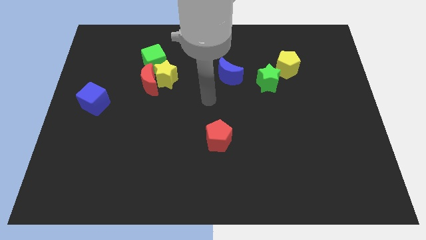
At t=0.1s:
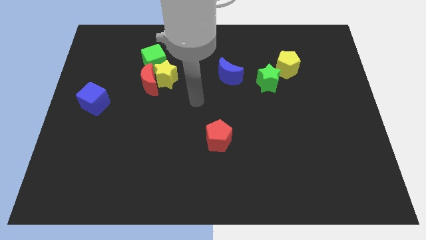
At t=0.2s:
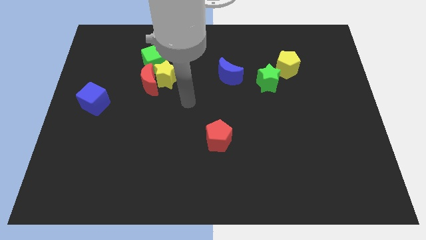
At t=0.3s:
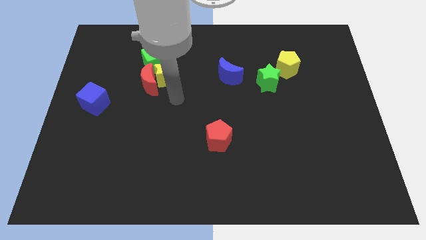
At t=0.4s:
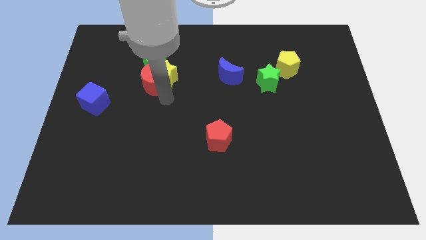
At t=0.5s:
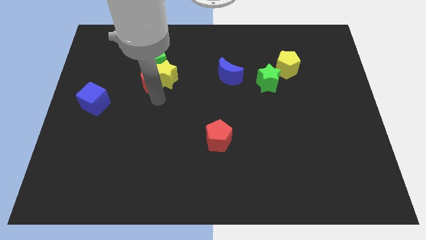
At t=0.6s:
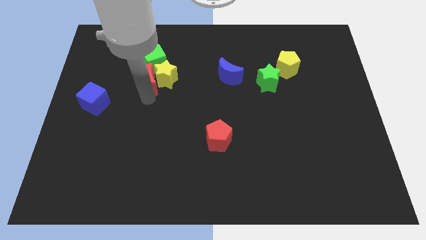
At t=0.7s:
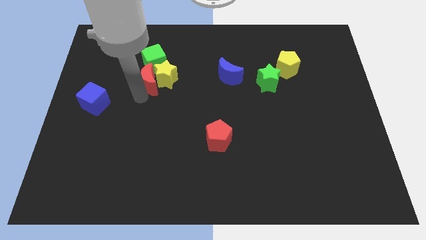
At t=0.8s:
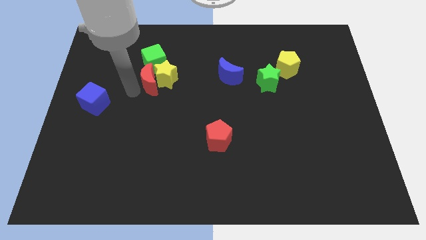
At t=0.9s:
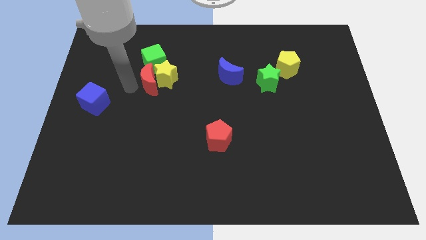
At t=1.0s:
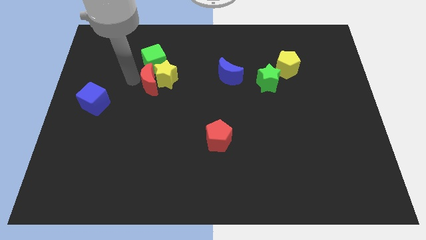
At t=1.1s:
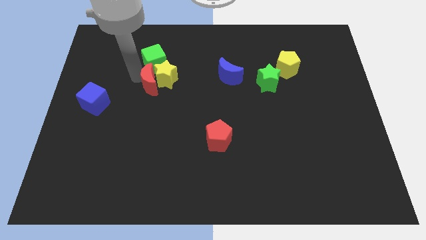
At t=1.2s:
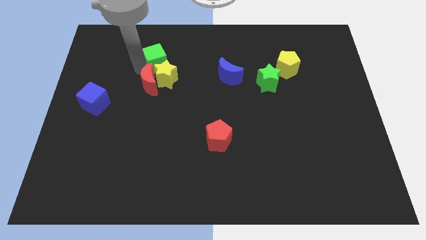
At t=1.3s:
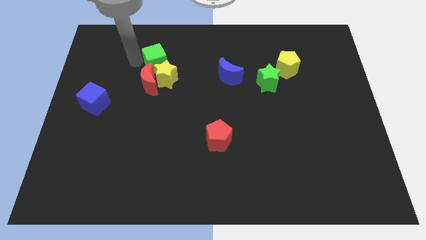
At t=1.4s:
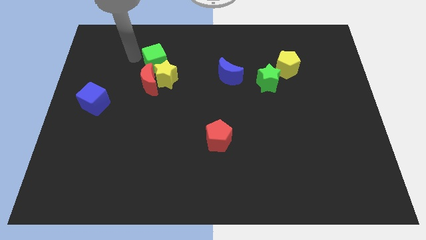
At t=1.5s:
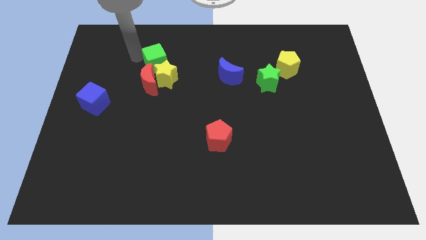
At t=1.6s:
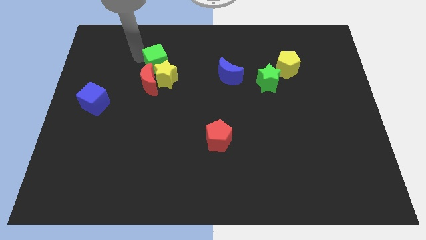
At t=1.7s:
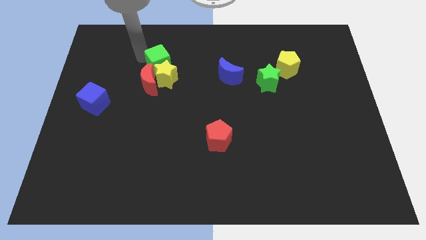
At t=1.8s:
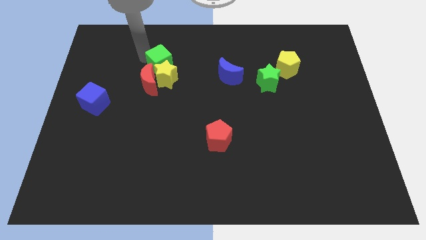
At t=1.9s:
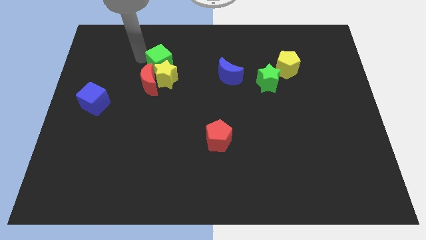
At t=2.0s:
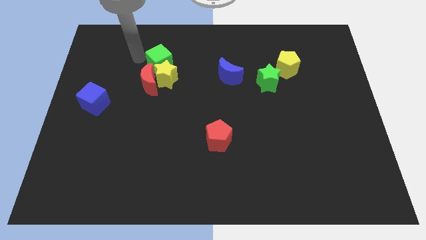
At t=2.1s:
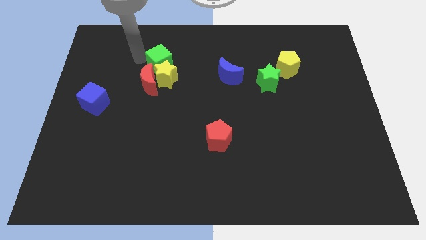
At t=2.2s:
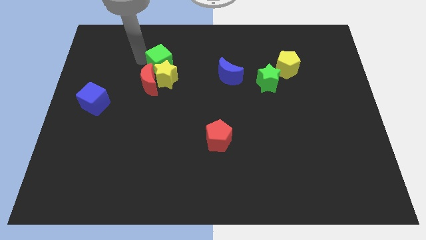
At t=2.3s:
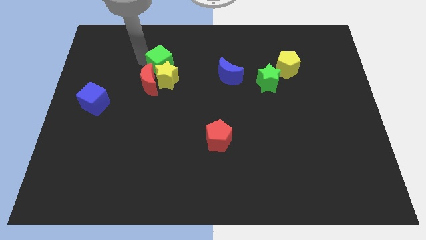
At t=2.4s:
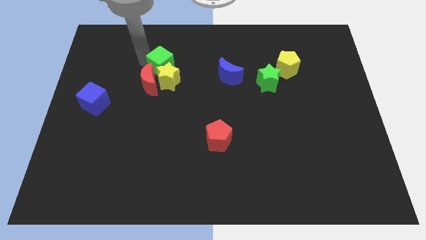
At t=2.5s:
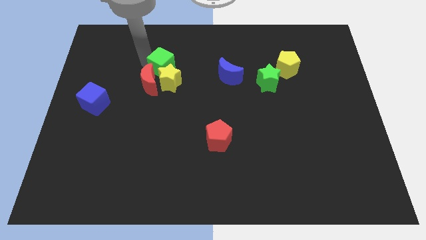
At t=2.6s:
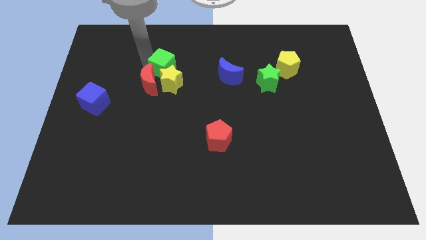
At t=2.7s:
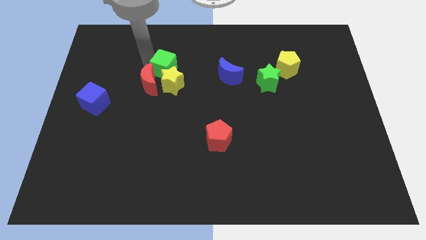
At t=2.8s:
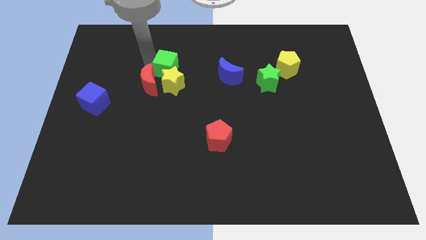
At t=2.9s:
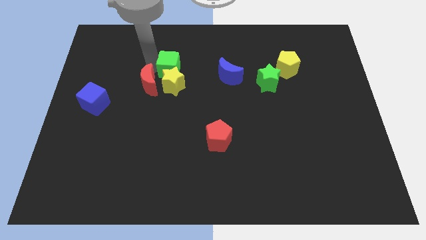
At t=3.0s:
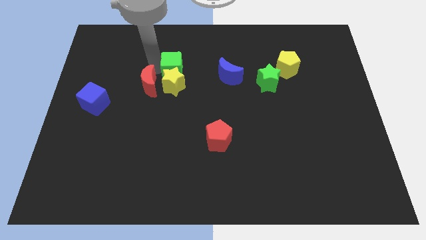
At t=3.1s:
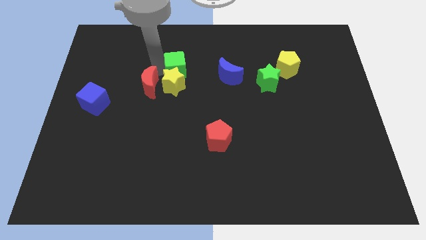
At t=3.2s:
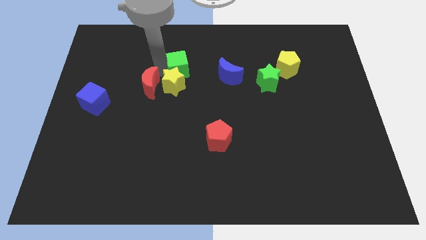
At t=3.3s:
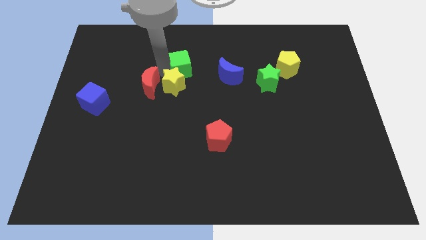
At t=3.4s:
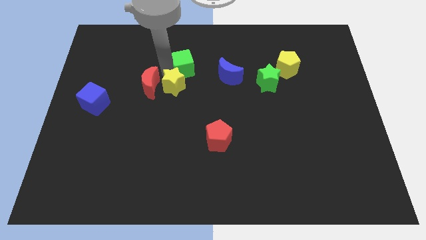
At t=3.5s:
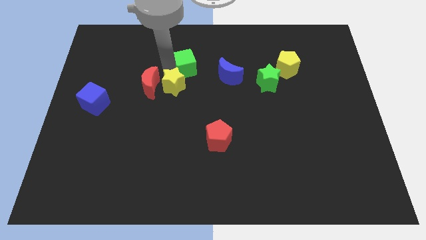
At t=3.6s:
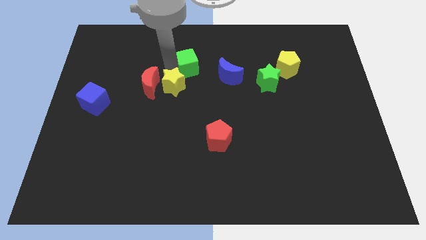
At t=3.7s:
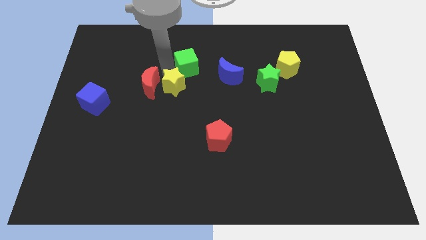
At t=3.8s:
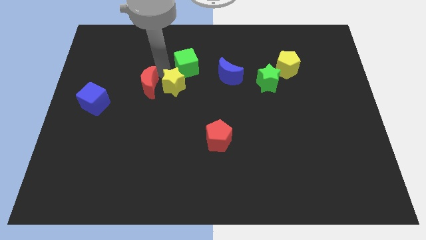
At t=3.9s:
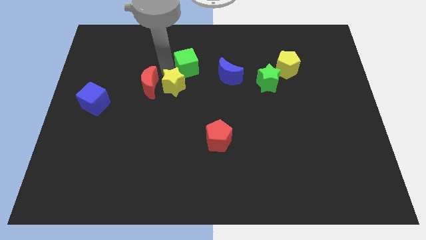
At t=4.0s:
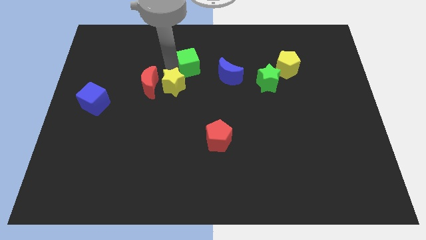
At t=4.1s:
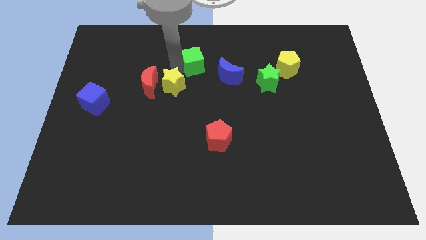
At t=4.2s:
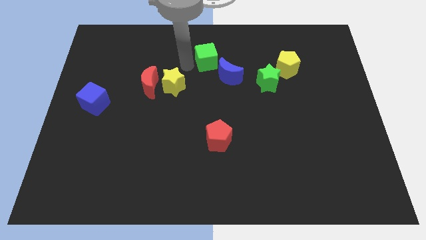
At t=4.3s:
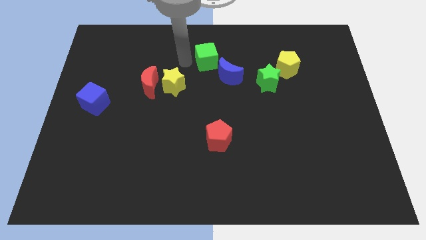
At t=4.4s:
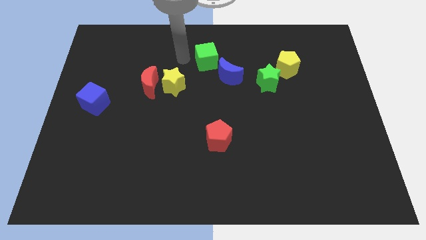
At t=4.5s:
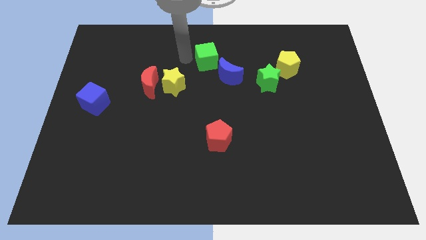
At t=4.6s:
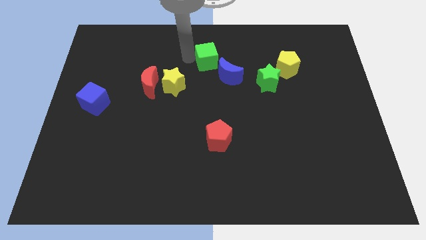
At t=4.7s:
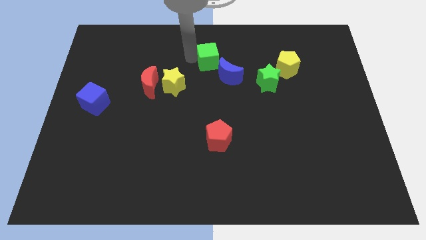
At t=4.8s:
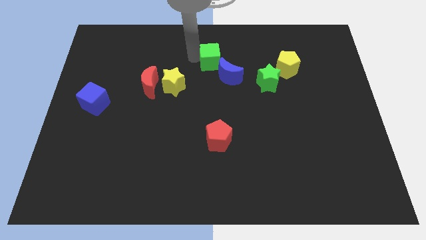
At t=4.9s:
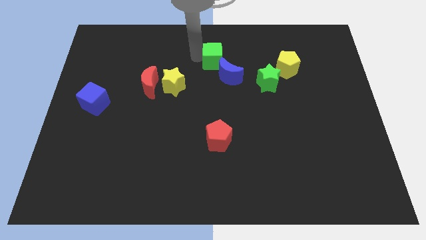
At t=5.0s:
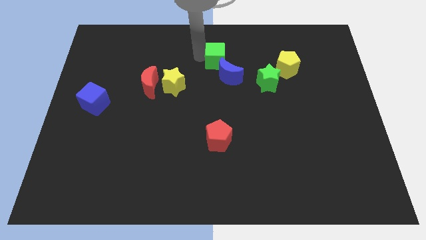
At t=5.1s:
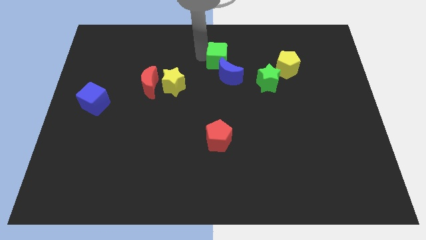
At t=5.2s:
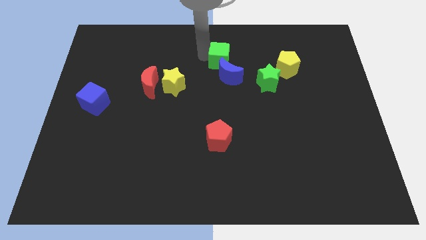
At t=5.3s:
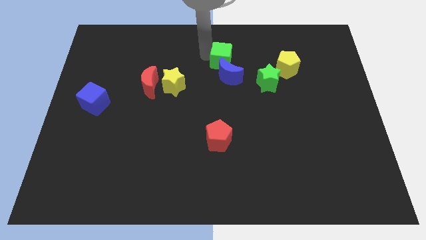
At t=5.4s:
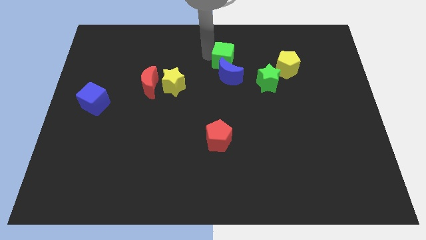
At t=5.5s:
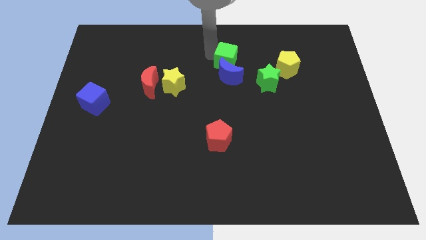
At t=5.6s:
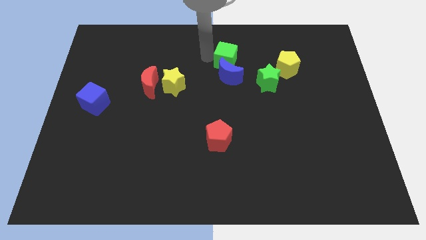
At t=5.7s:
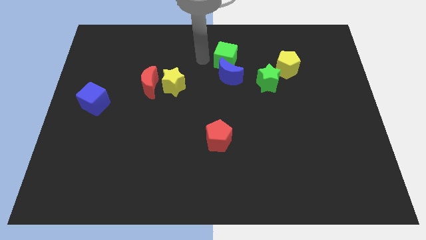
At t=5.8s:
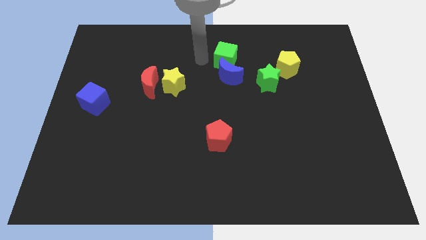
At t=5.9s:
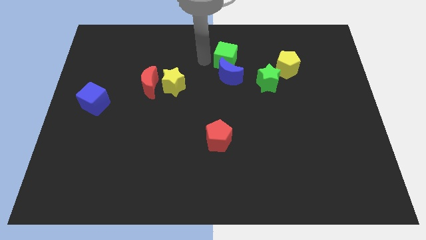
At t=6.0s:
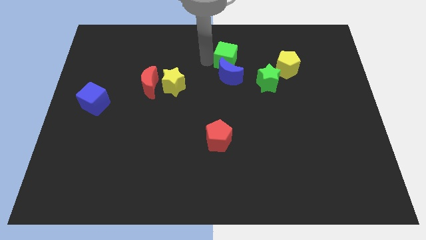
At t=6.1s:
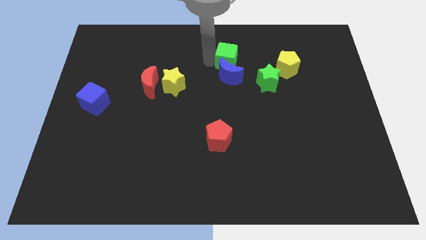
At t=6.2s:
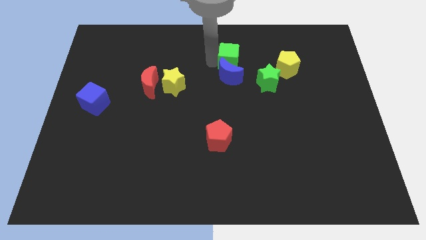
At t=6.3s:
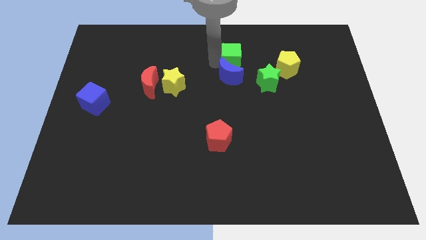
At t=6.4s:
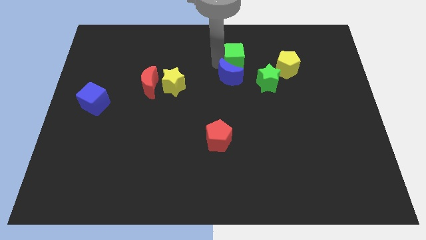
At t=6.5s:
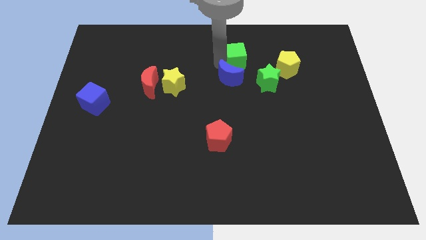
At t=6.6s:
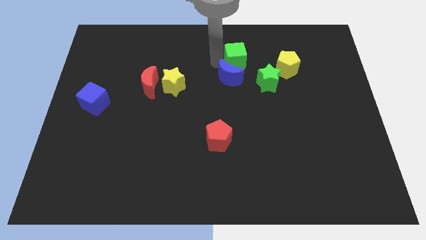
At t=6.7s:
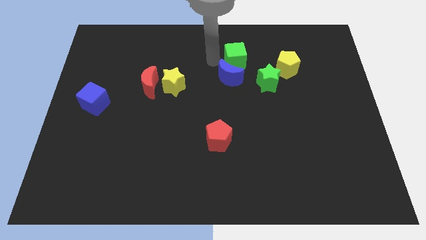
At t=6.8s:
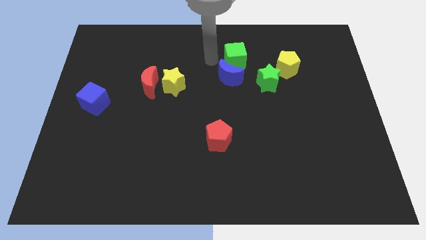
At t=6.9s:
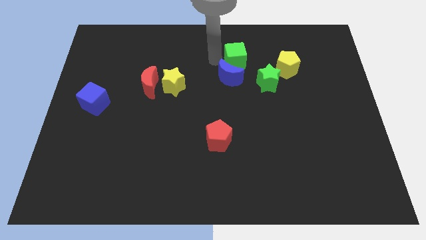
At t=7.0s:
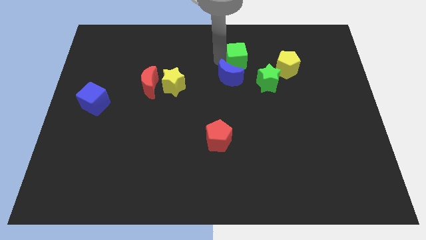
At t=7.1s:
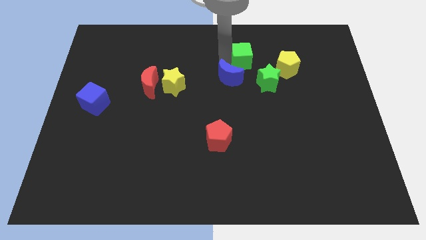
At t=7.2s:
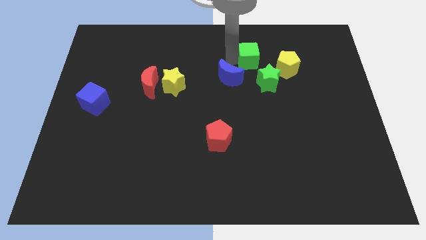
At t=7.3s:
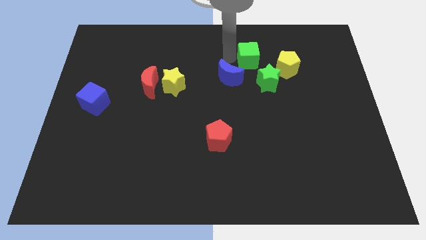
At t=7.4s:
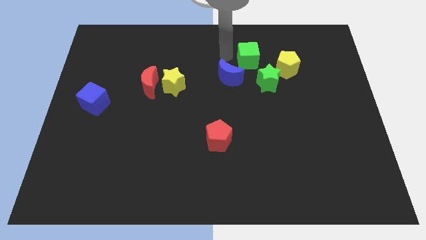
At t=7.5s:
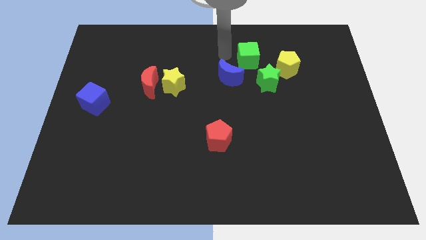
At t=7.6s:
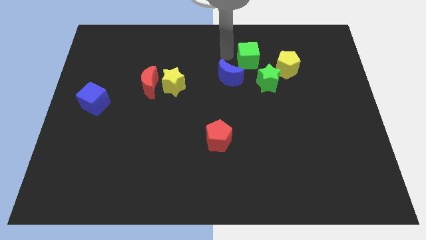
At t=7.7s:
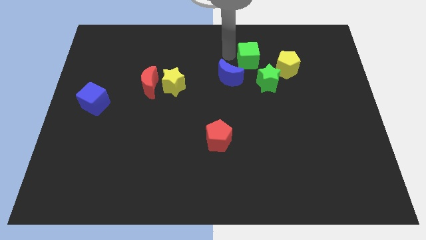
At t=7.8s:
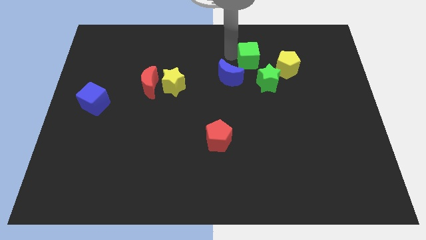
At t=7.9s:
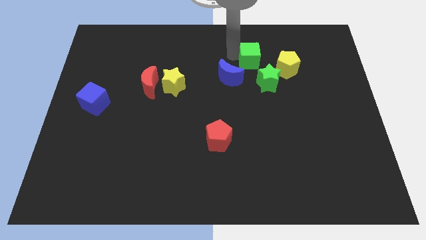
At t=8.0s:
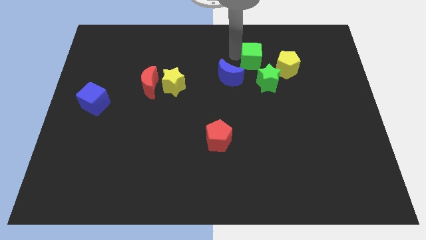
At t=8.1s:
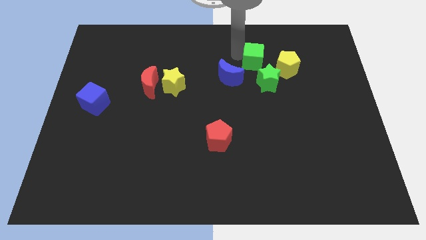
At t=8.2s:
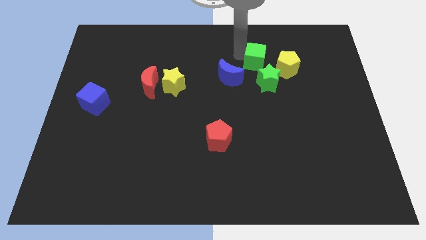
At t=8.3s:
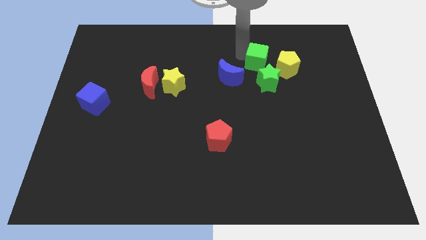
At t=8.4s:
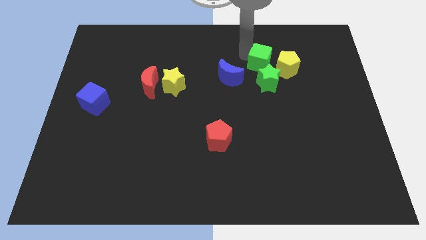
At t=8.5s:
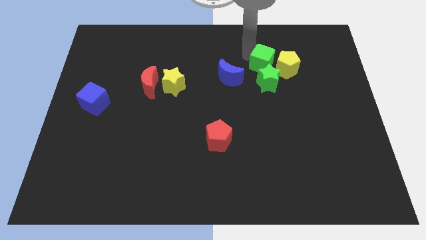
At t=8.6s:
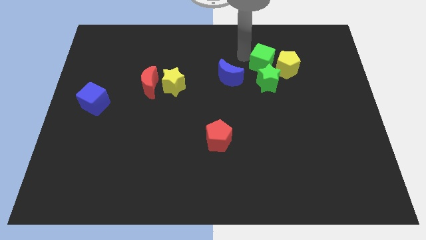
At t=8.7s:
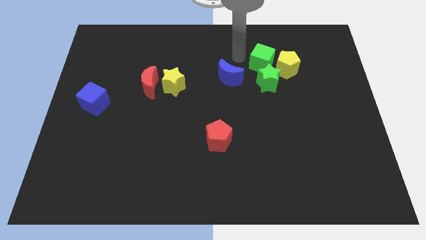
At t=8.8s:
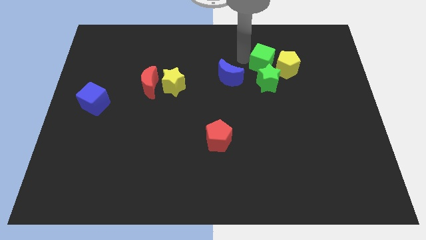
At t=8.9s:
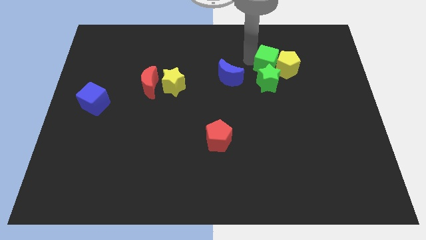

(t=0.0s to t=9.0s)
move the green cube next to the yellow pentagon
